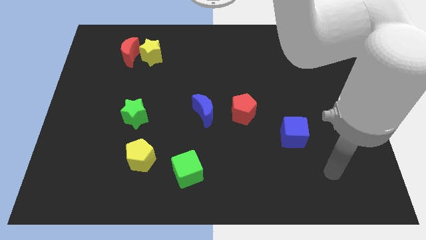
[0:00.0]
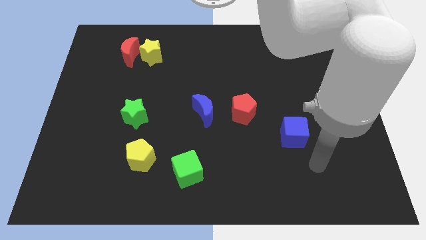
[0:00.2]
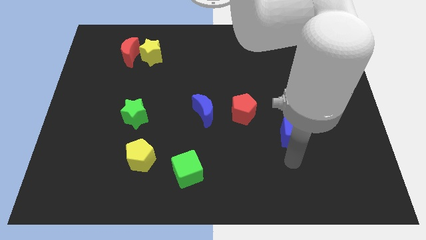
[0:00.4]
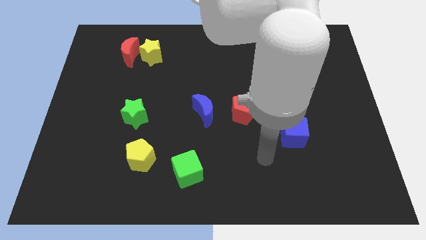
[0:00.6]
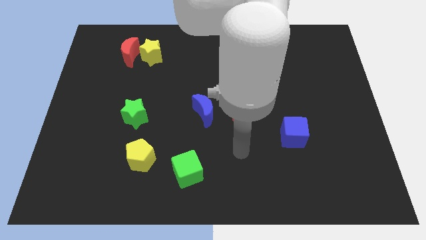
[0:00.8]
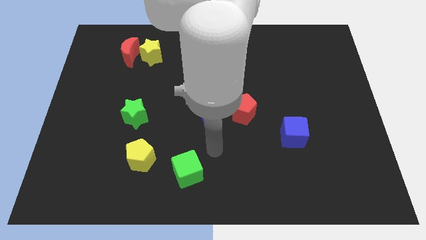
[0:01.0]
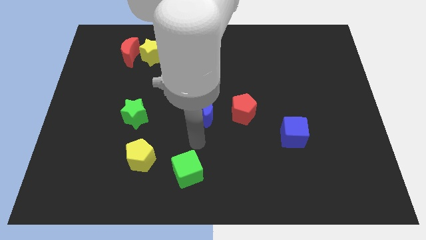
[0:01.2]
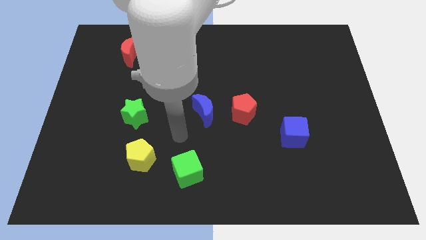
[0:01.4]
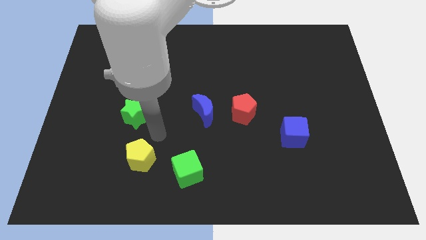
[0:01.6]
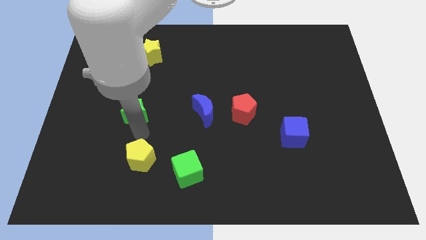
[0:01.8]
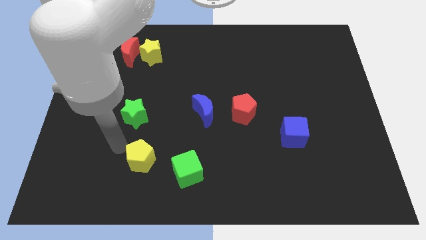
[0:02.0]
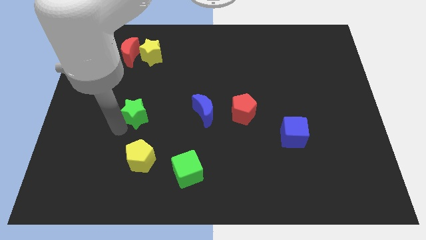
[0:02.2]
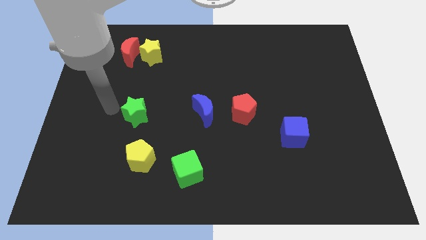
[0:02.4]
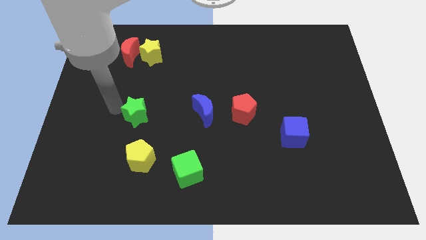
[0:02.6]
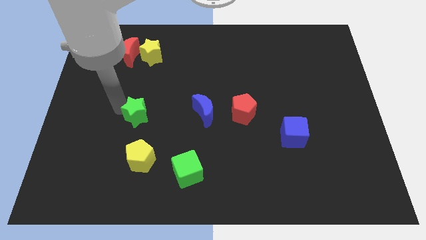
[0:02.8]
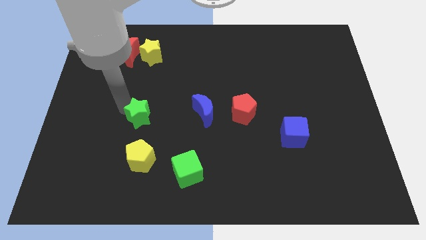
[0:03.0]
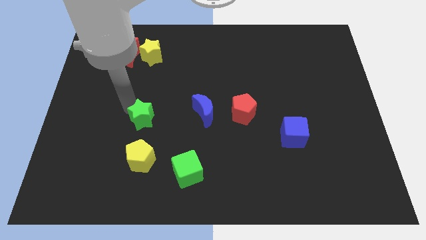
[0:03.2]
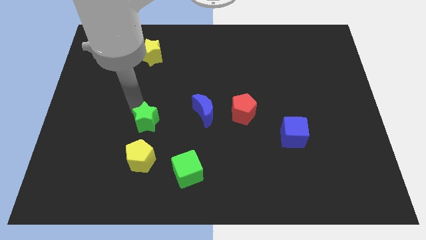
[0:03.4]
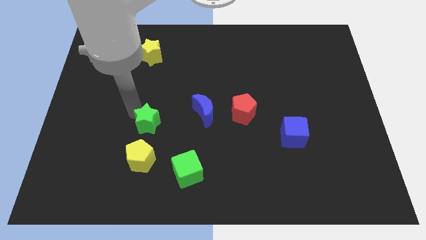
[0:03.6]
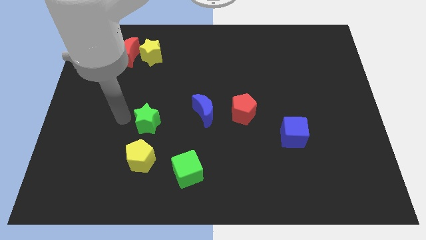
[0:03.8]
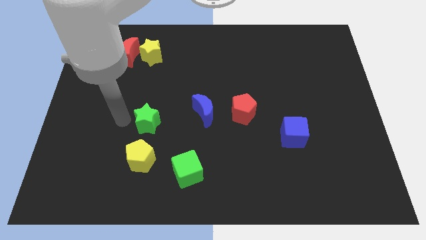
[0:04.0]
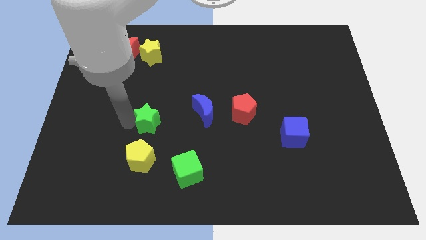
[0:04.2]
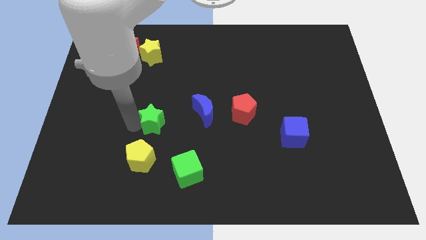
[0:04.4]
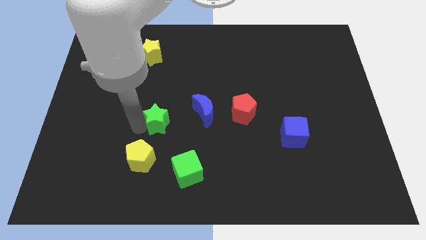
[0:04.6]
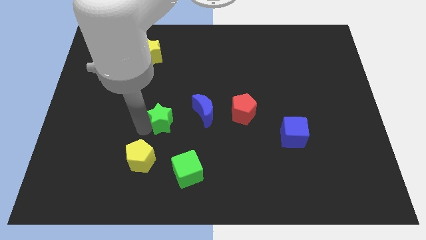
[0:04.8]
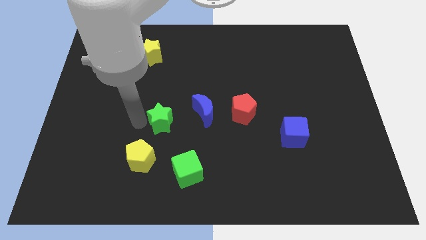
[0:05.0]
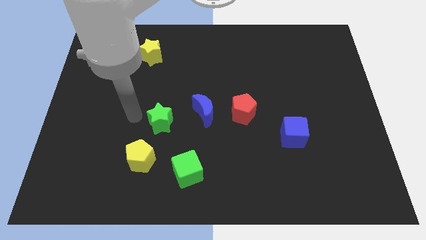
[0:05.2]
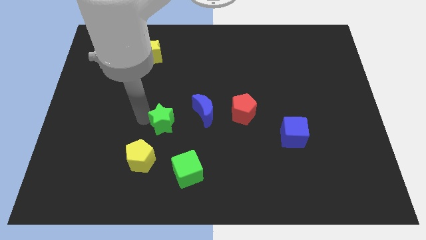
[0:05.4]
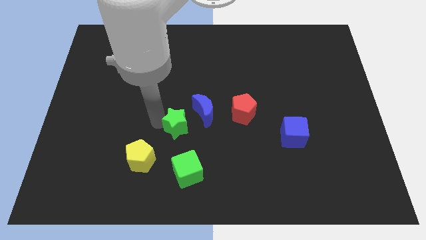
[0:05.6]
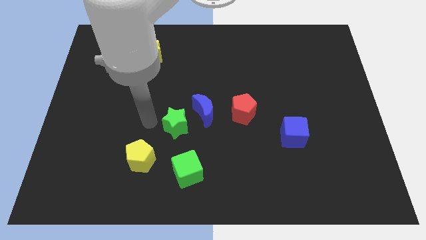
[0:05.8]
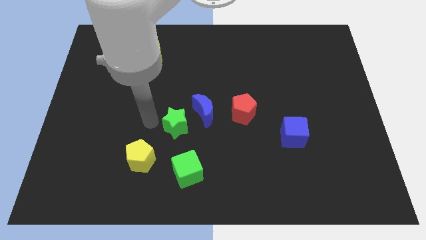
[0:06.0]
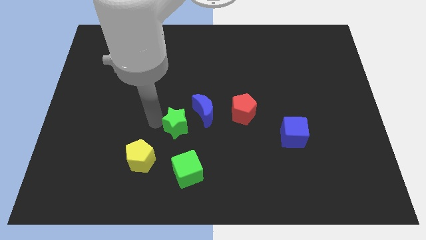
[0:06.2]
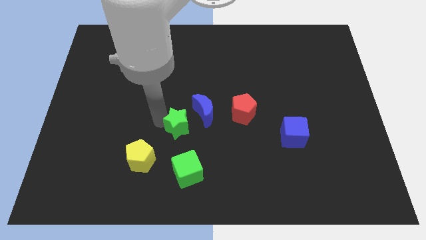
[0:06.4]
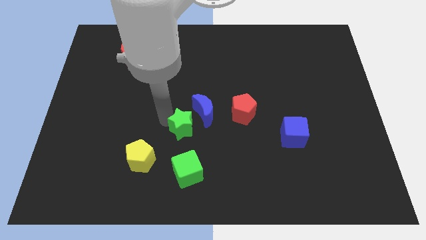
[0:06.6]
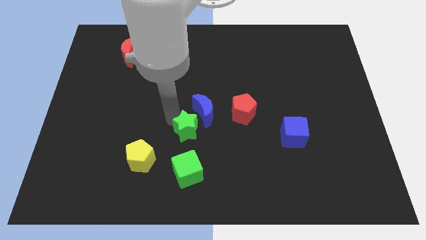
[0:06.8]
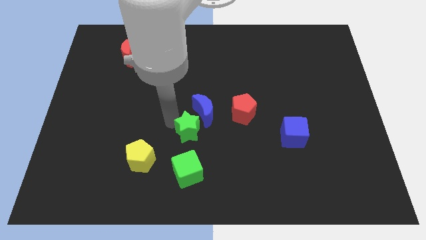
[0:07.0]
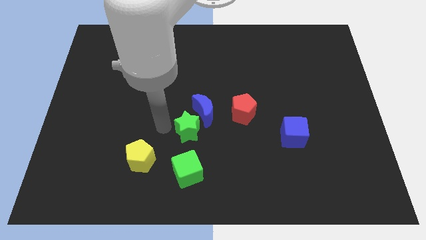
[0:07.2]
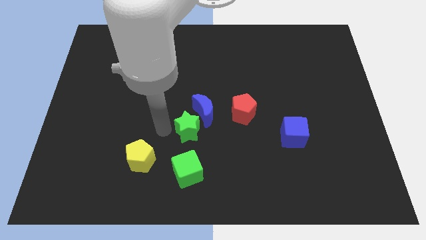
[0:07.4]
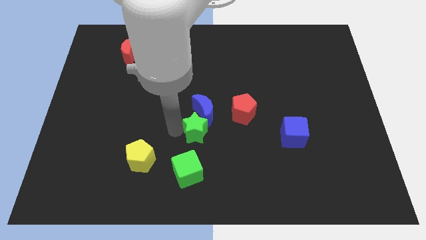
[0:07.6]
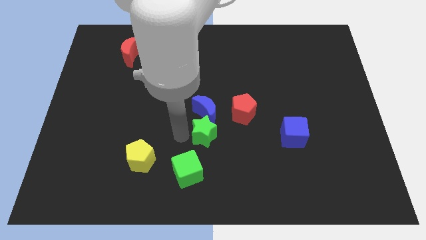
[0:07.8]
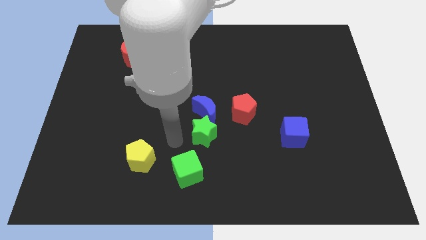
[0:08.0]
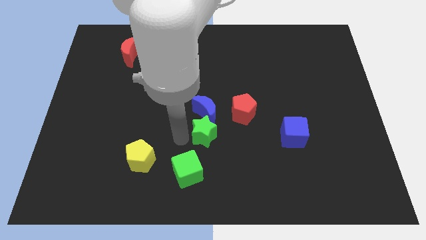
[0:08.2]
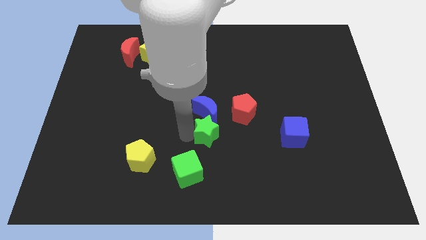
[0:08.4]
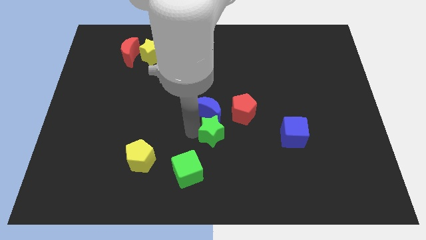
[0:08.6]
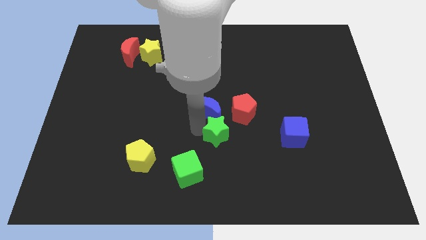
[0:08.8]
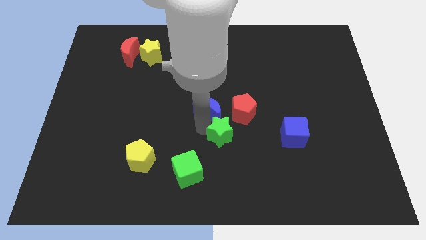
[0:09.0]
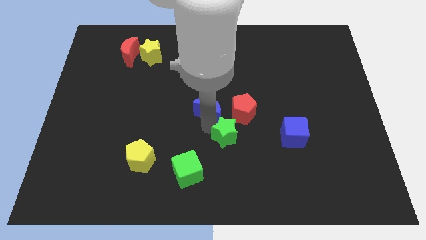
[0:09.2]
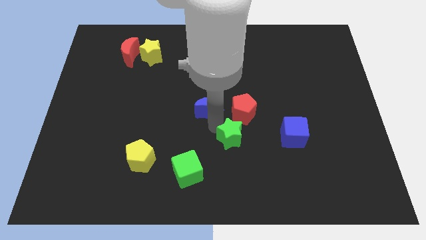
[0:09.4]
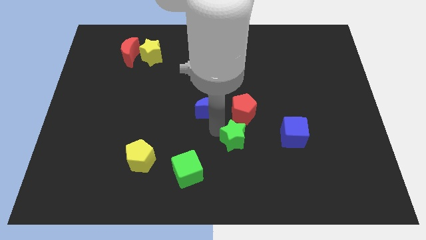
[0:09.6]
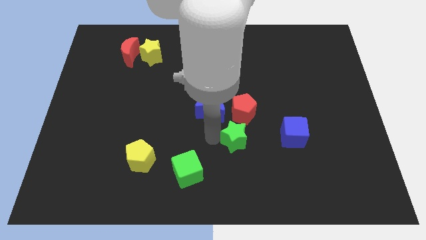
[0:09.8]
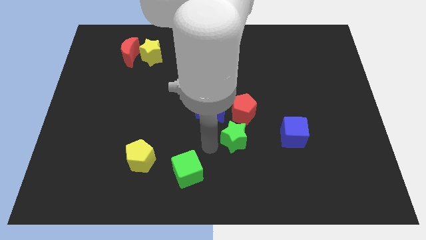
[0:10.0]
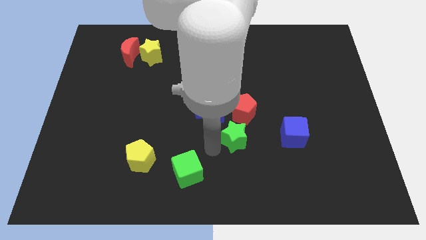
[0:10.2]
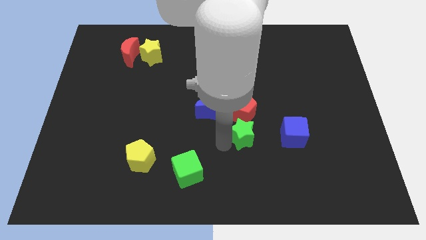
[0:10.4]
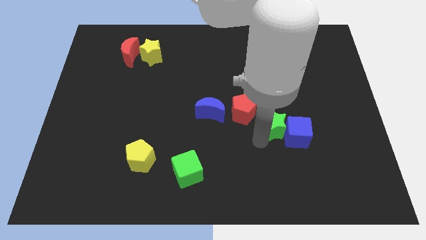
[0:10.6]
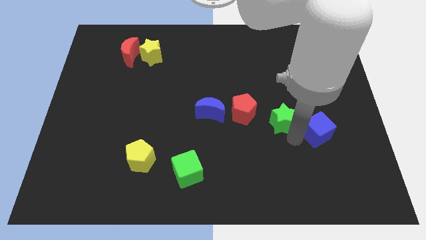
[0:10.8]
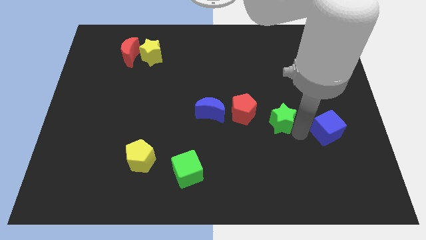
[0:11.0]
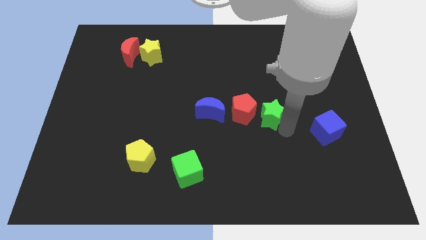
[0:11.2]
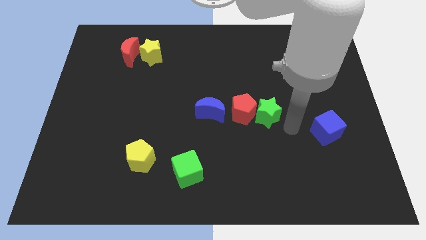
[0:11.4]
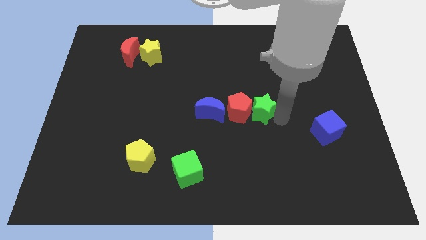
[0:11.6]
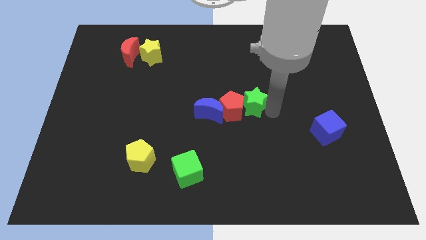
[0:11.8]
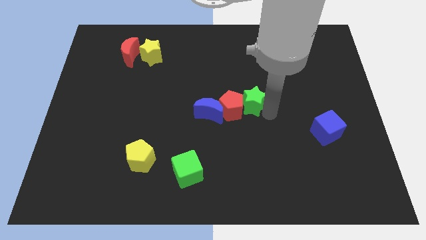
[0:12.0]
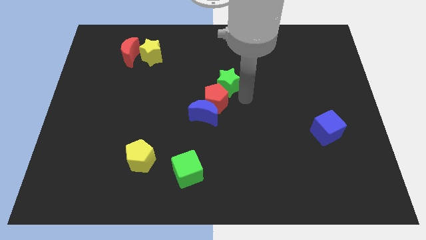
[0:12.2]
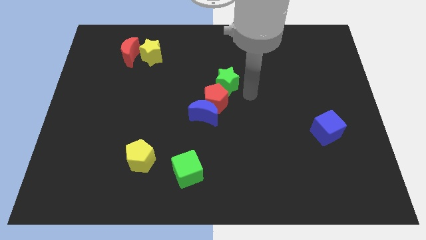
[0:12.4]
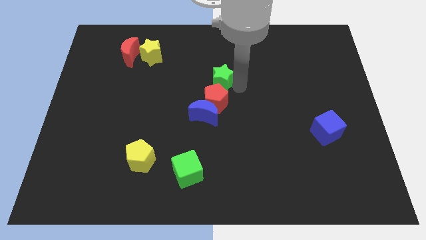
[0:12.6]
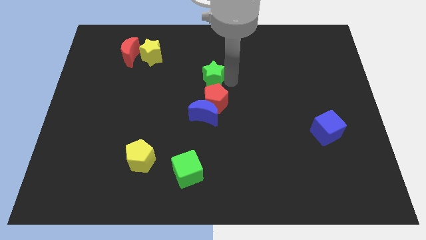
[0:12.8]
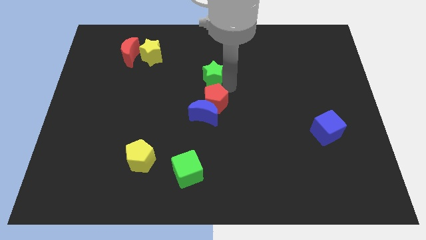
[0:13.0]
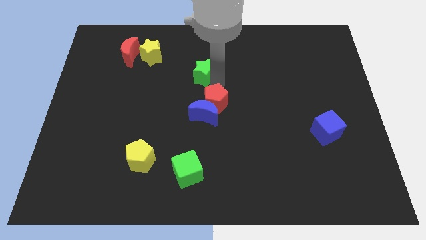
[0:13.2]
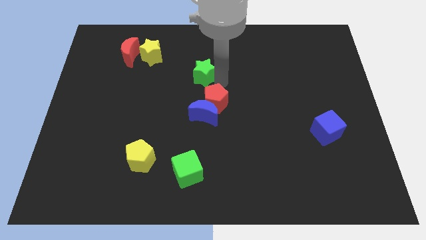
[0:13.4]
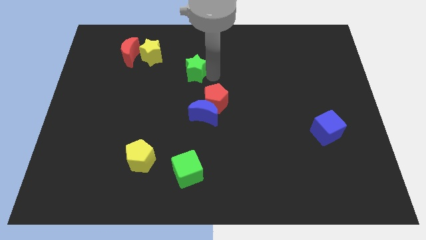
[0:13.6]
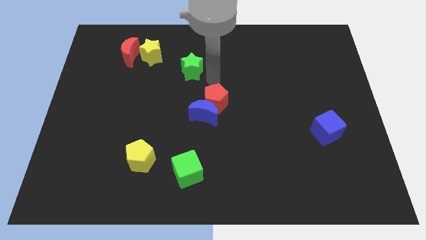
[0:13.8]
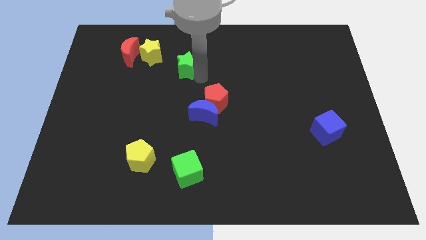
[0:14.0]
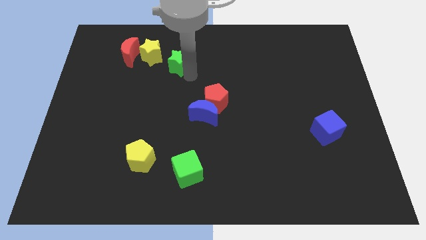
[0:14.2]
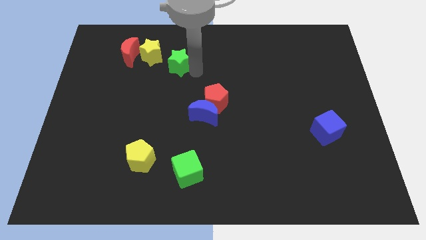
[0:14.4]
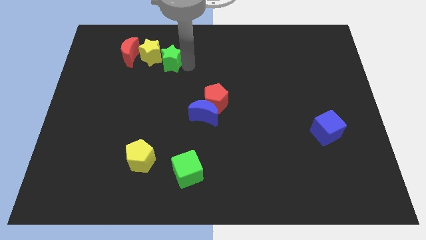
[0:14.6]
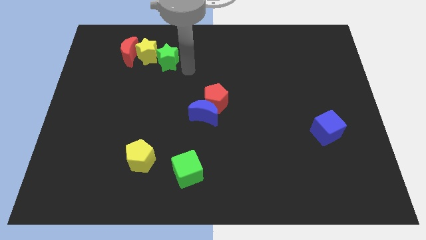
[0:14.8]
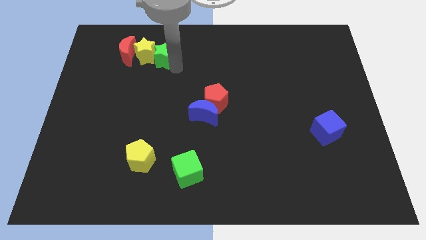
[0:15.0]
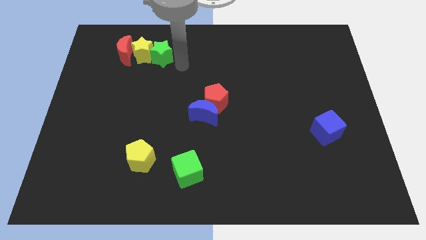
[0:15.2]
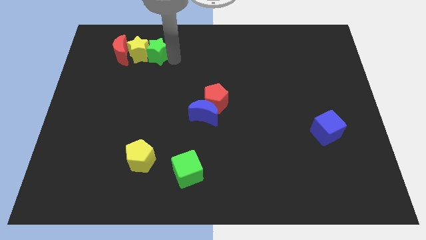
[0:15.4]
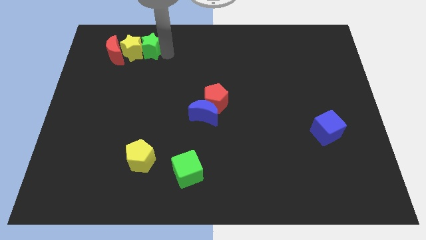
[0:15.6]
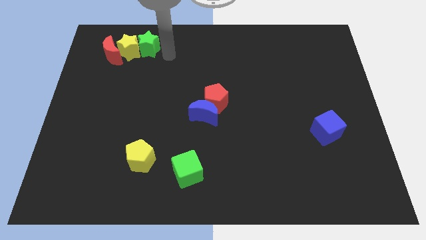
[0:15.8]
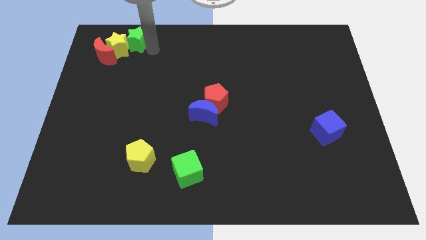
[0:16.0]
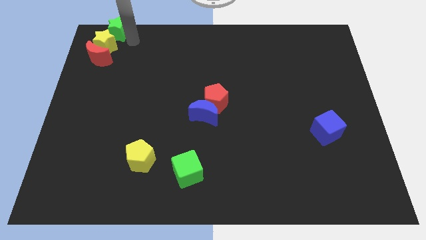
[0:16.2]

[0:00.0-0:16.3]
put the green star to the top left of the board
